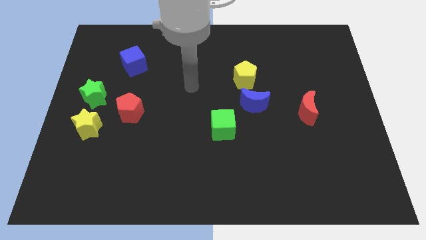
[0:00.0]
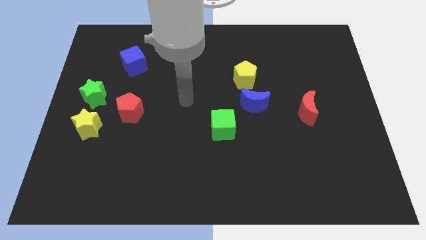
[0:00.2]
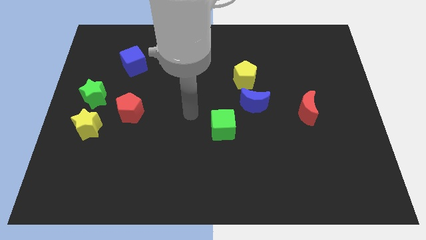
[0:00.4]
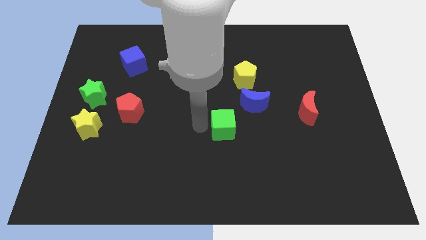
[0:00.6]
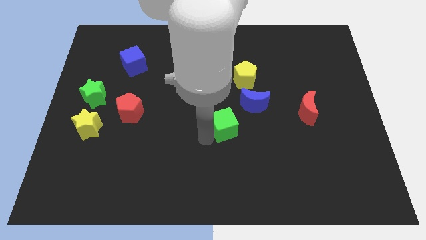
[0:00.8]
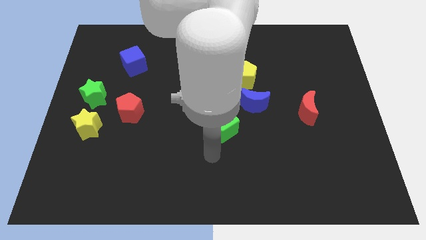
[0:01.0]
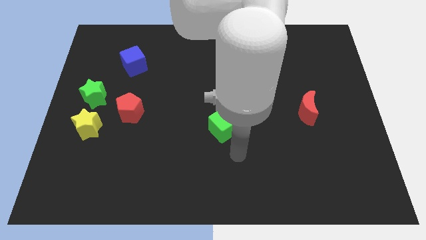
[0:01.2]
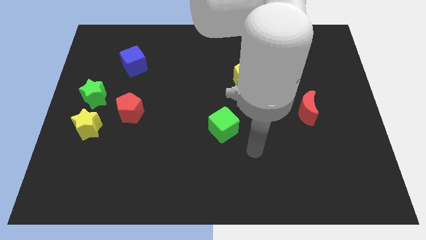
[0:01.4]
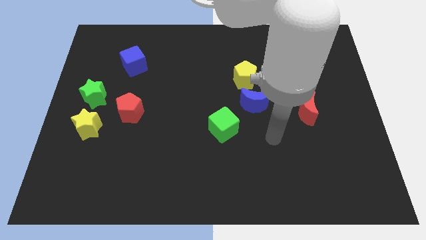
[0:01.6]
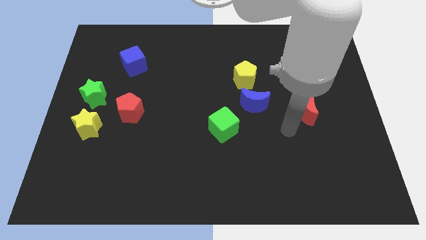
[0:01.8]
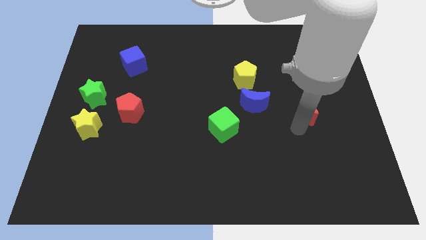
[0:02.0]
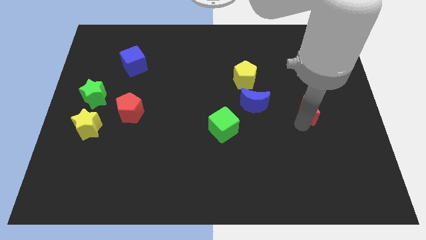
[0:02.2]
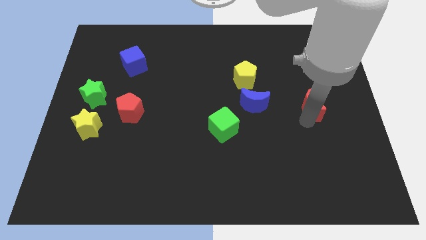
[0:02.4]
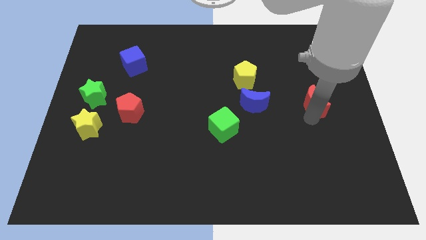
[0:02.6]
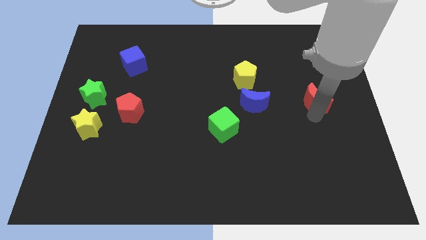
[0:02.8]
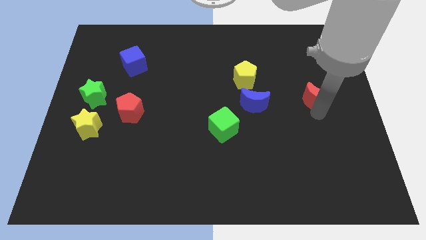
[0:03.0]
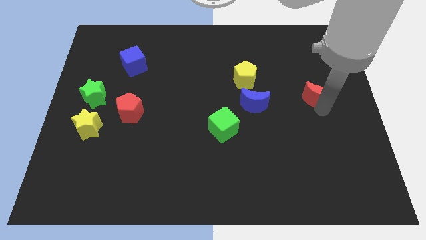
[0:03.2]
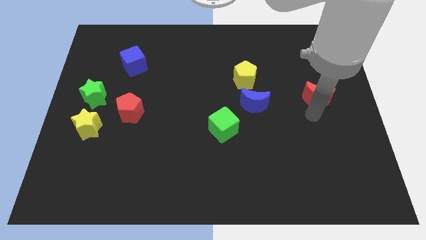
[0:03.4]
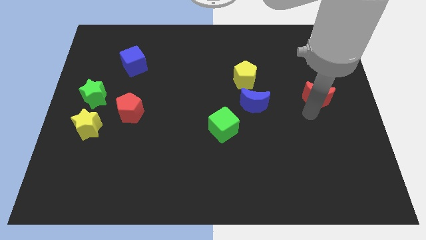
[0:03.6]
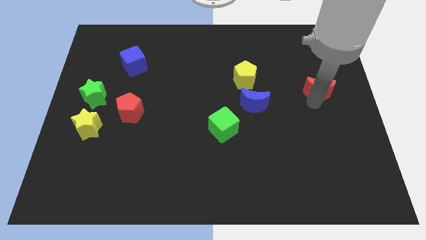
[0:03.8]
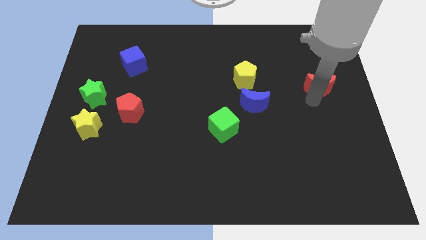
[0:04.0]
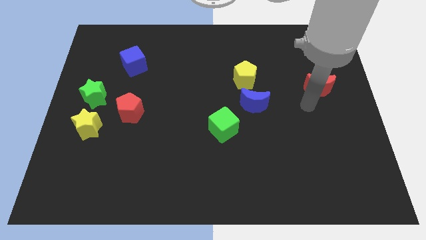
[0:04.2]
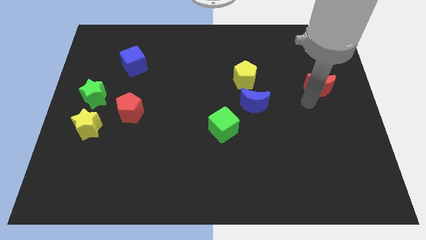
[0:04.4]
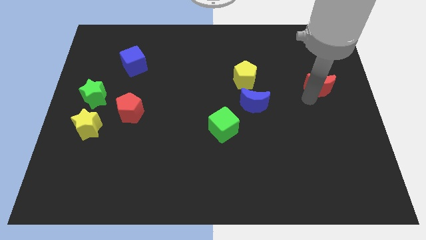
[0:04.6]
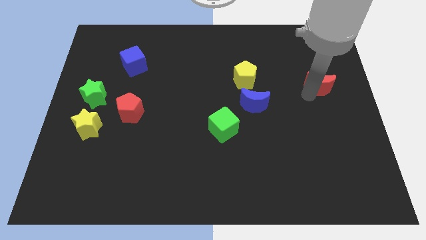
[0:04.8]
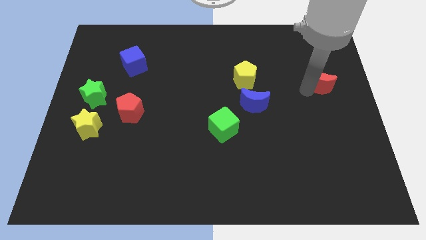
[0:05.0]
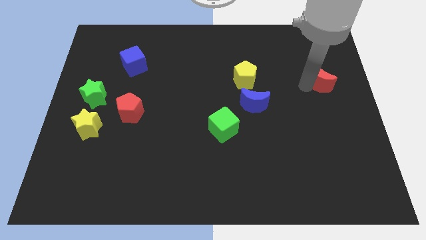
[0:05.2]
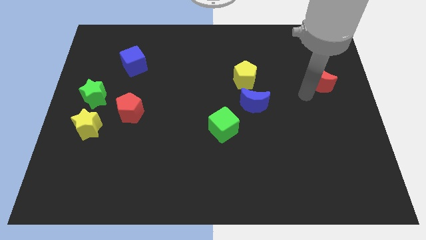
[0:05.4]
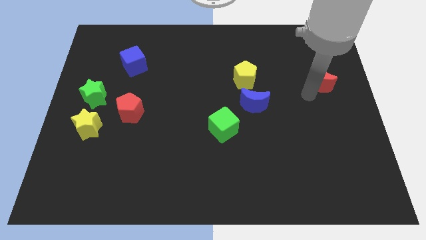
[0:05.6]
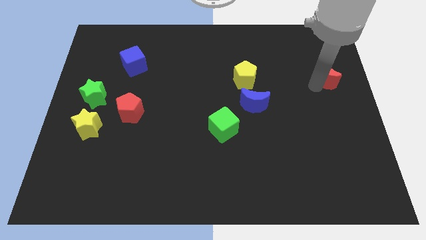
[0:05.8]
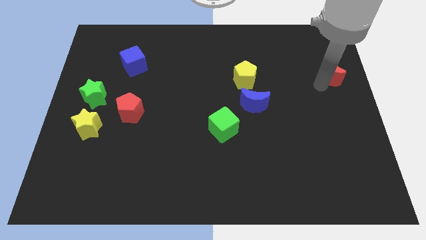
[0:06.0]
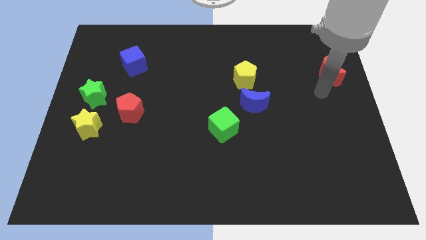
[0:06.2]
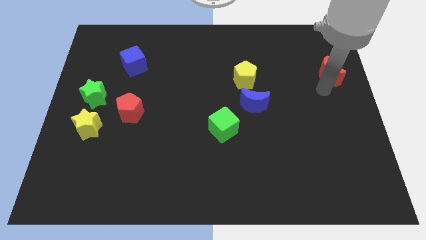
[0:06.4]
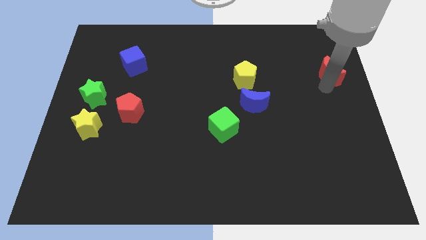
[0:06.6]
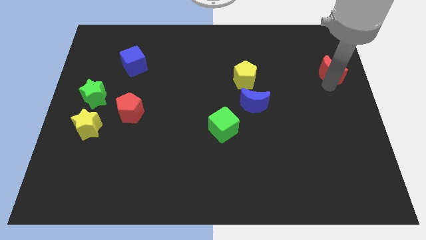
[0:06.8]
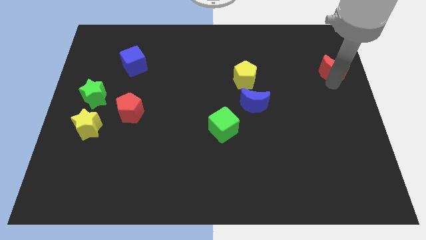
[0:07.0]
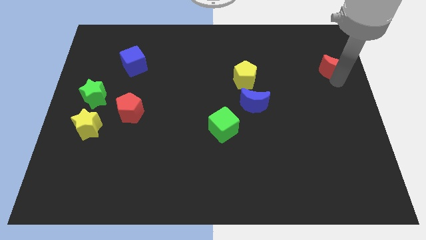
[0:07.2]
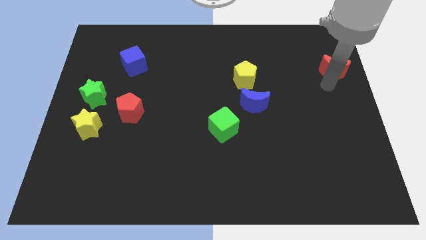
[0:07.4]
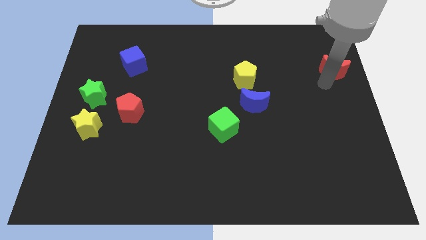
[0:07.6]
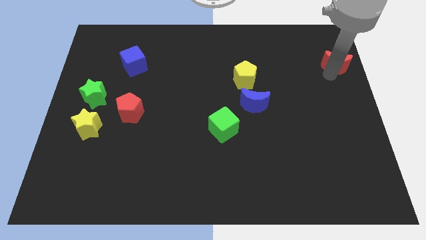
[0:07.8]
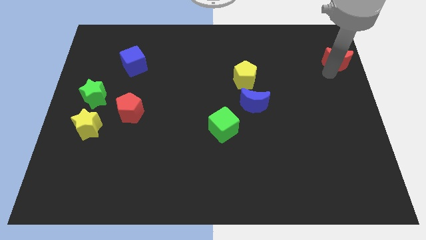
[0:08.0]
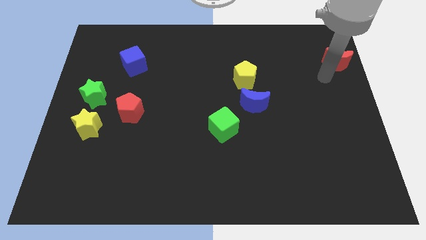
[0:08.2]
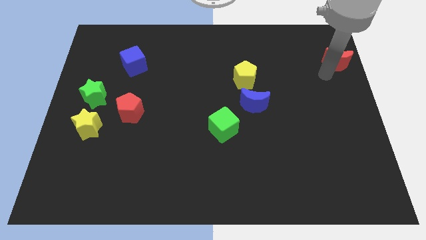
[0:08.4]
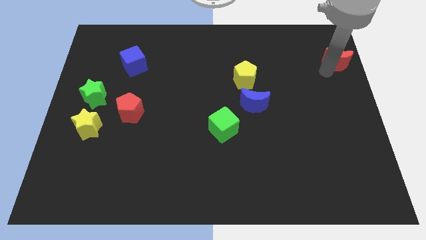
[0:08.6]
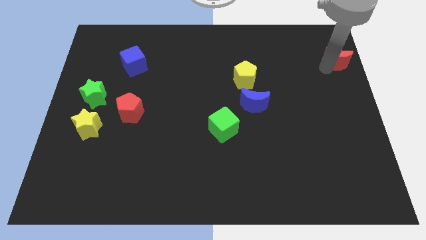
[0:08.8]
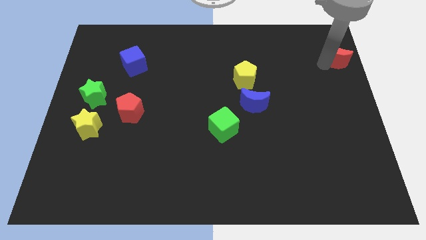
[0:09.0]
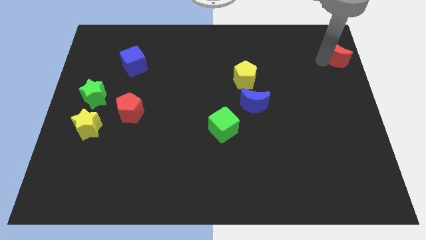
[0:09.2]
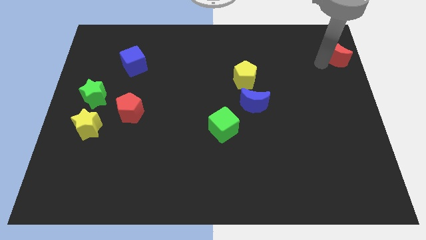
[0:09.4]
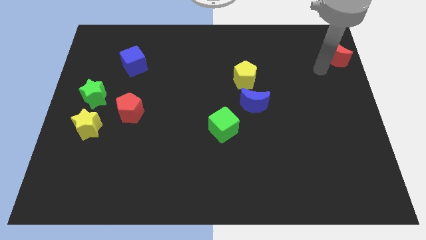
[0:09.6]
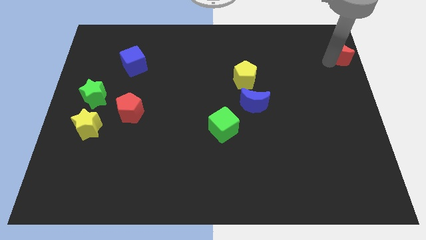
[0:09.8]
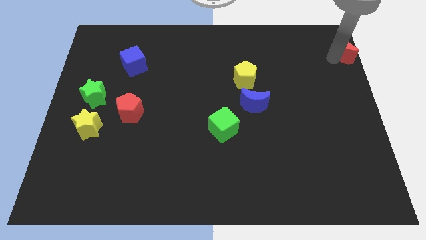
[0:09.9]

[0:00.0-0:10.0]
move the red moon to the top right corner

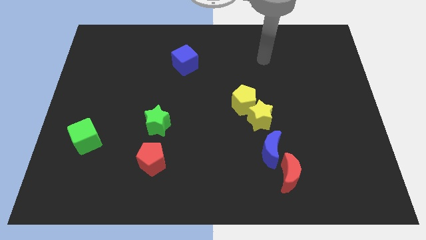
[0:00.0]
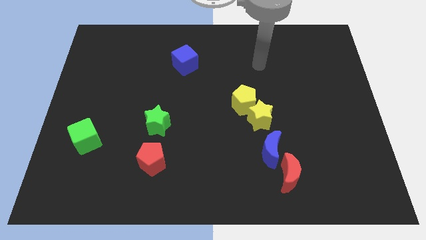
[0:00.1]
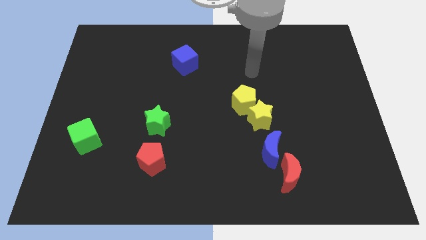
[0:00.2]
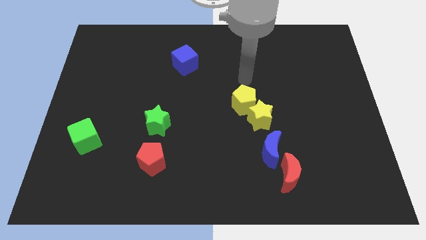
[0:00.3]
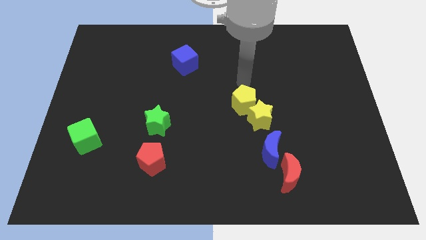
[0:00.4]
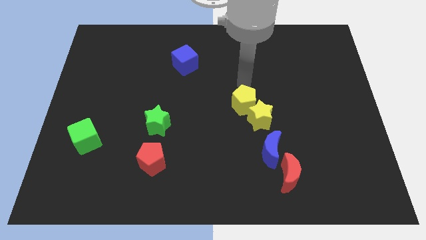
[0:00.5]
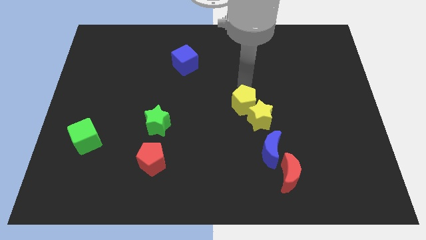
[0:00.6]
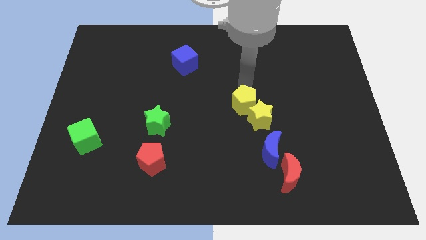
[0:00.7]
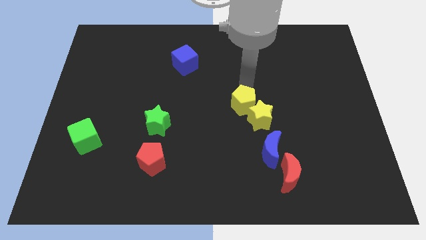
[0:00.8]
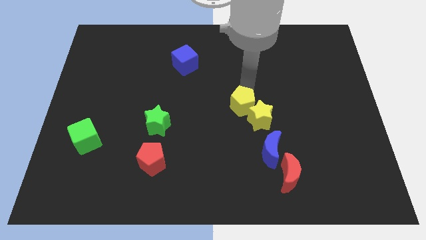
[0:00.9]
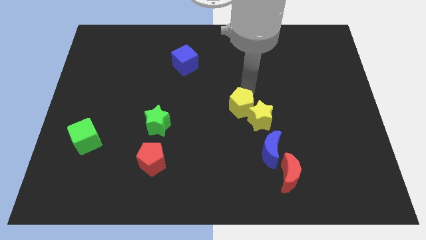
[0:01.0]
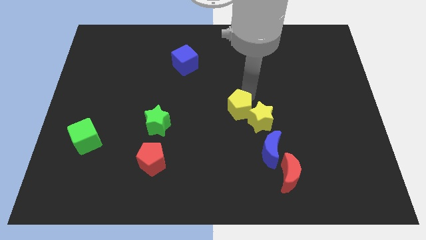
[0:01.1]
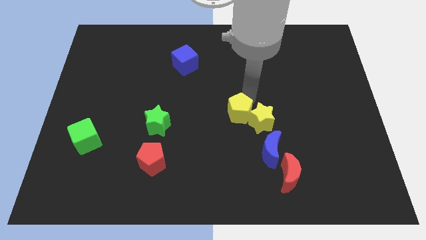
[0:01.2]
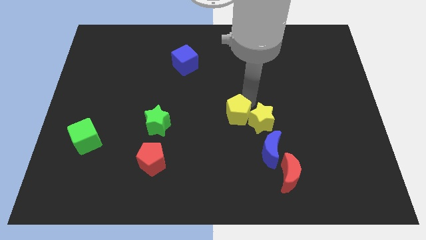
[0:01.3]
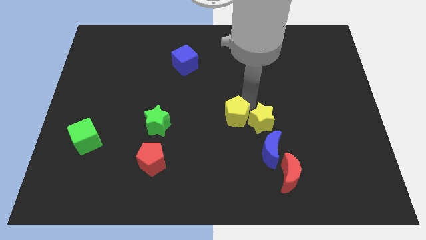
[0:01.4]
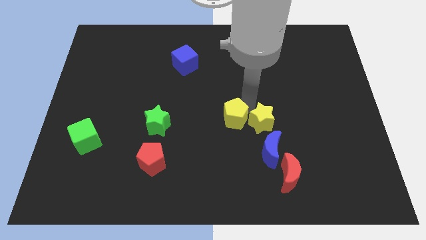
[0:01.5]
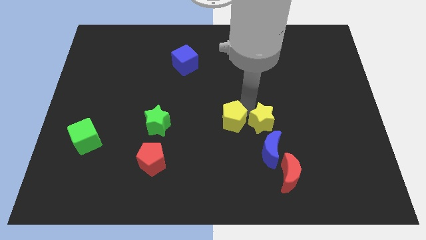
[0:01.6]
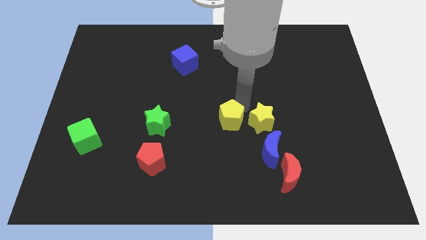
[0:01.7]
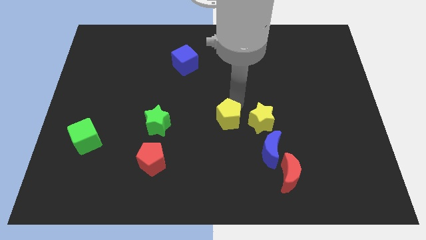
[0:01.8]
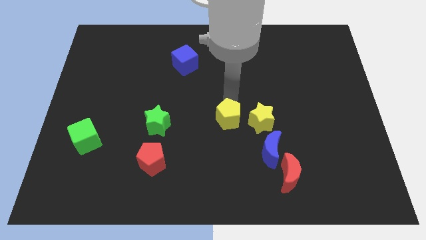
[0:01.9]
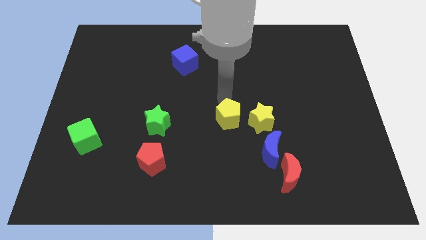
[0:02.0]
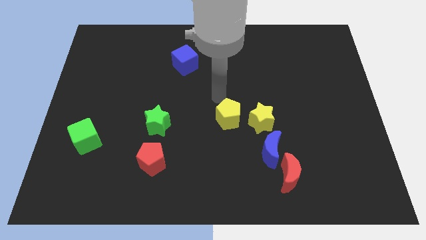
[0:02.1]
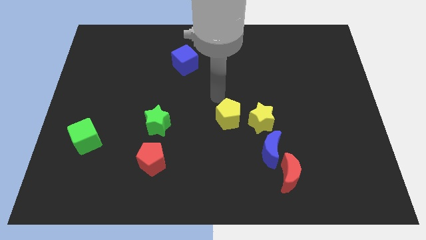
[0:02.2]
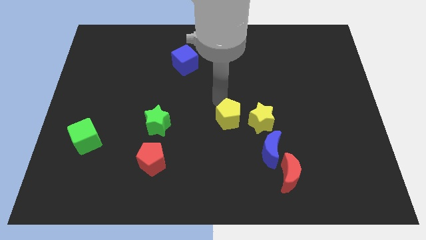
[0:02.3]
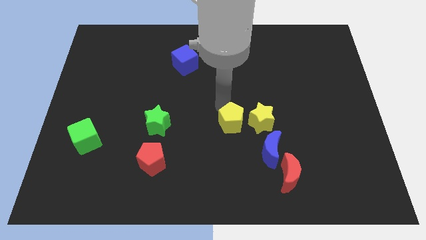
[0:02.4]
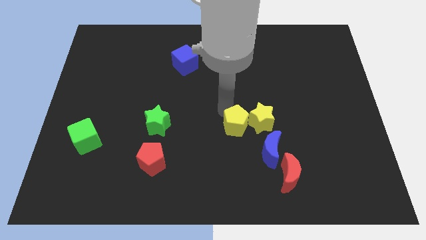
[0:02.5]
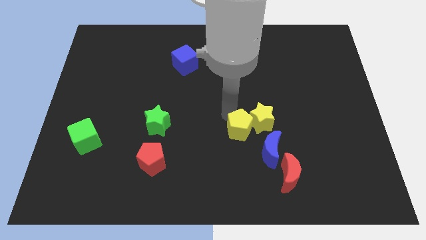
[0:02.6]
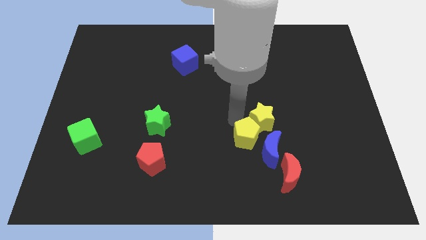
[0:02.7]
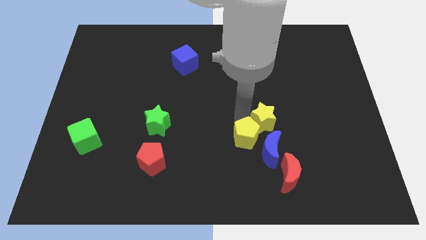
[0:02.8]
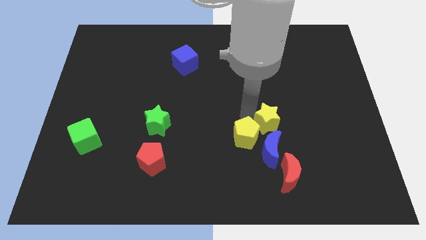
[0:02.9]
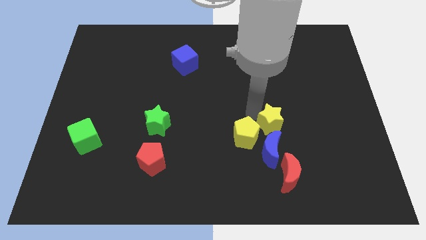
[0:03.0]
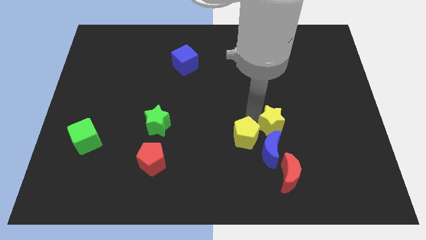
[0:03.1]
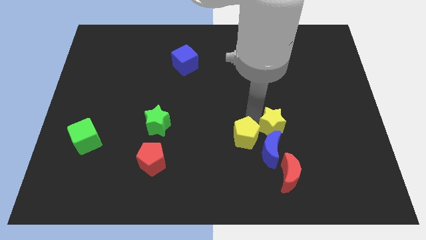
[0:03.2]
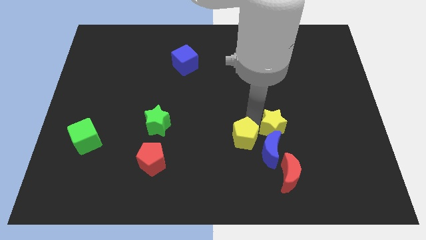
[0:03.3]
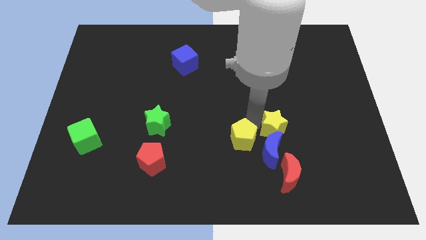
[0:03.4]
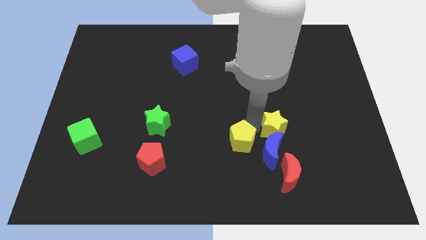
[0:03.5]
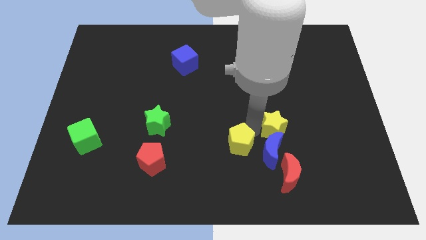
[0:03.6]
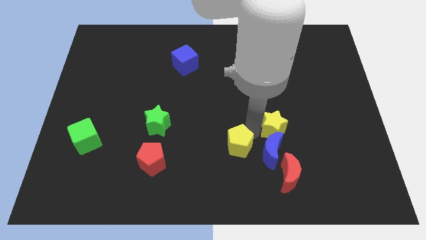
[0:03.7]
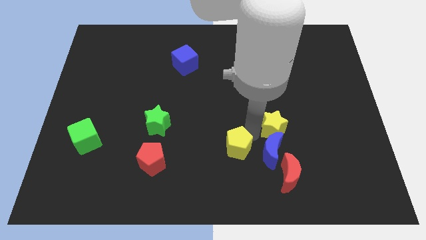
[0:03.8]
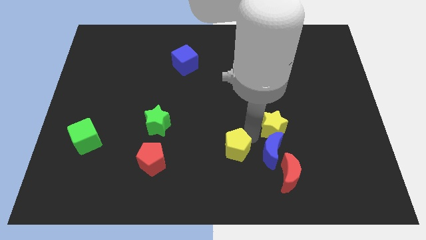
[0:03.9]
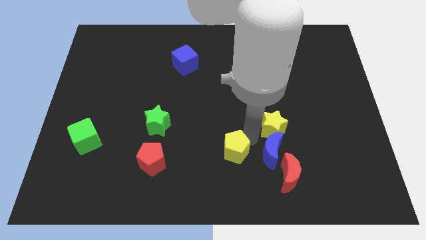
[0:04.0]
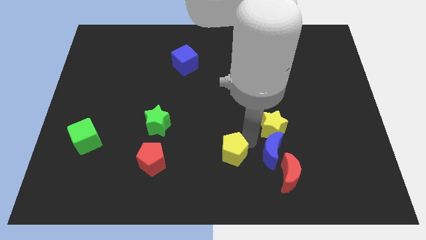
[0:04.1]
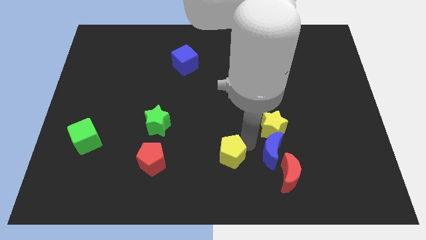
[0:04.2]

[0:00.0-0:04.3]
put the yellow pentagon to the bottom
